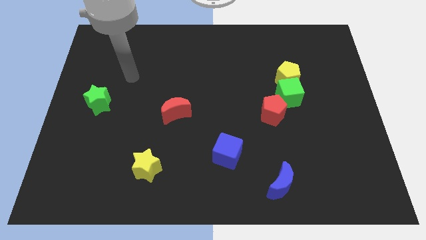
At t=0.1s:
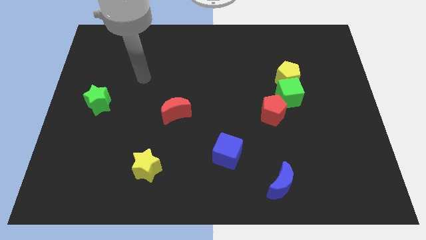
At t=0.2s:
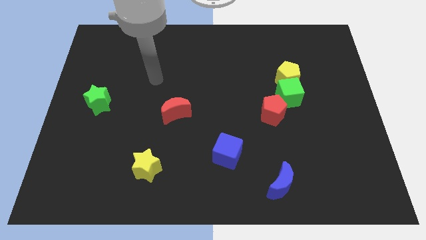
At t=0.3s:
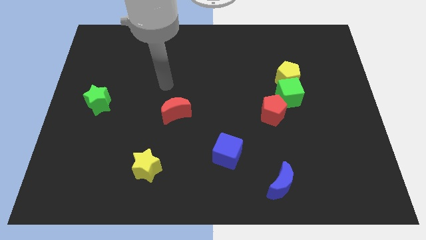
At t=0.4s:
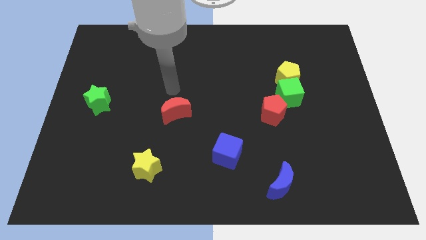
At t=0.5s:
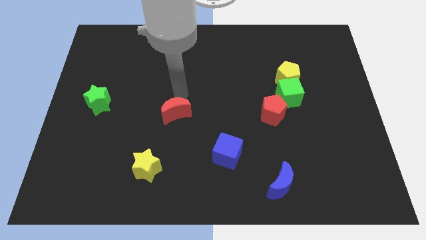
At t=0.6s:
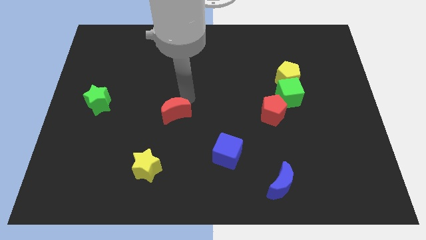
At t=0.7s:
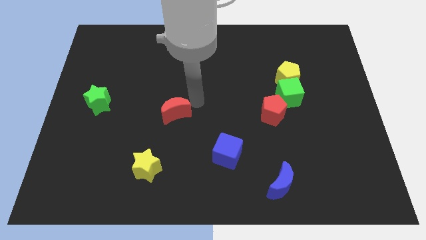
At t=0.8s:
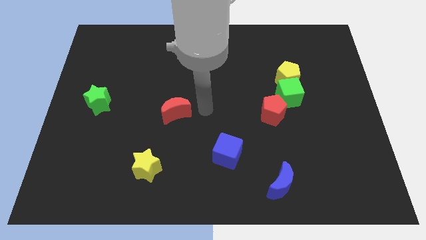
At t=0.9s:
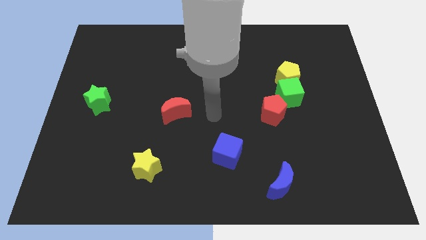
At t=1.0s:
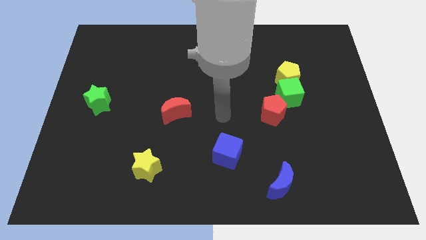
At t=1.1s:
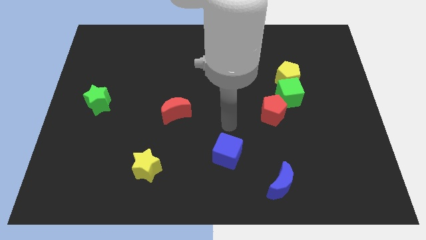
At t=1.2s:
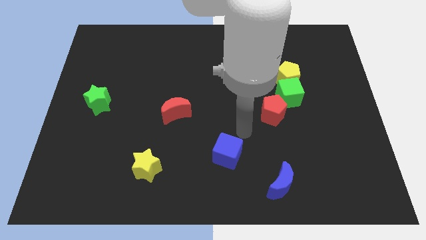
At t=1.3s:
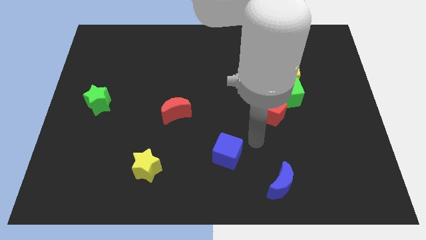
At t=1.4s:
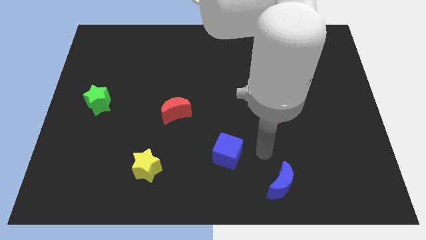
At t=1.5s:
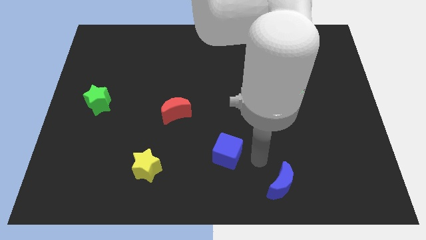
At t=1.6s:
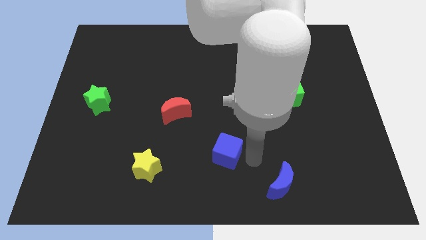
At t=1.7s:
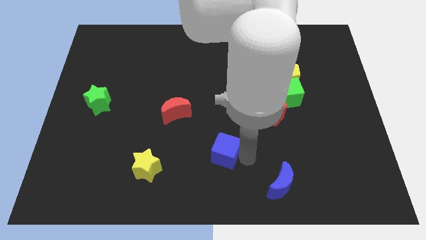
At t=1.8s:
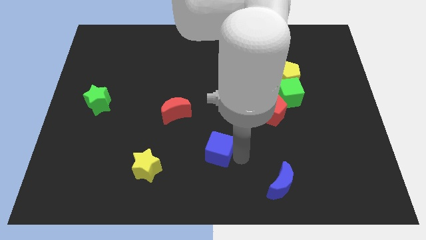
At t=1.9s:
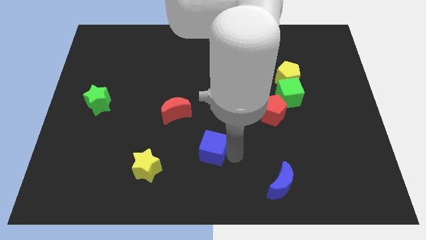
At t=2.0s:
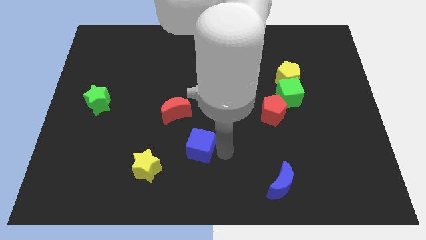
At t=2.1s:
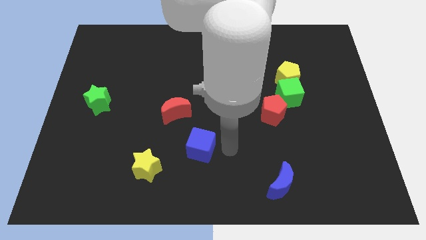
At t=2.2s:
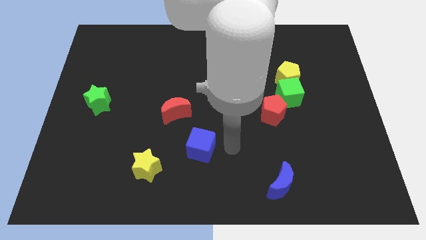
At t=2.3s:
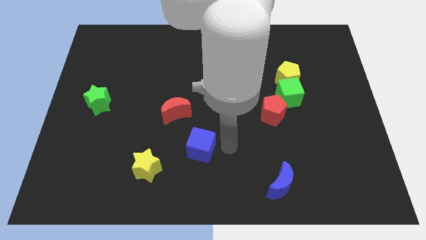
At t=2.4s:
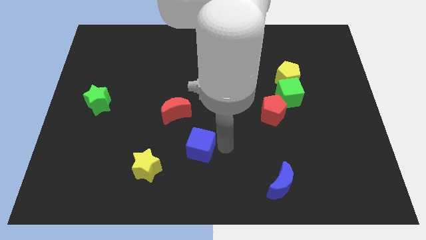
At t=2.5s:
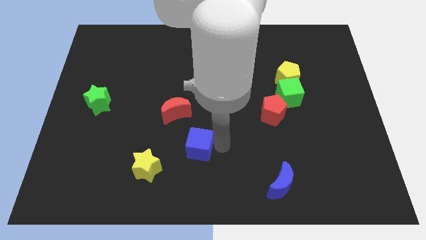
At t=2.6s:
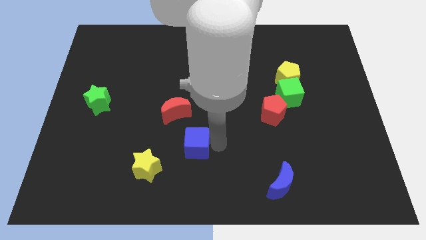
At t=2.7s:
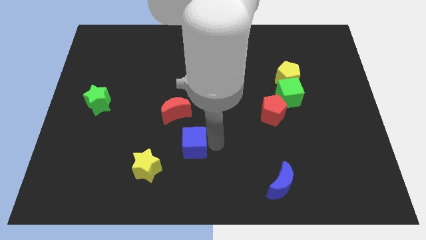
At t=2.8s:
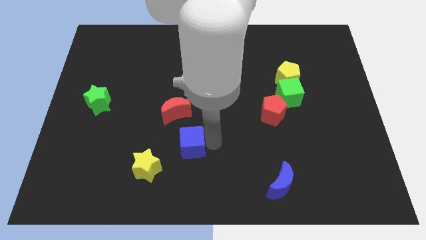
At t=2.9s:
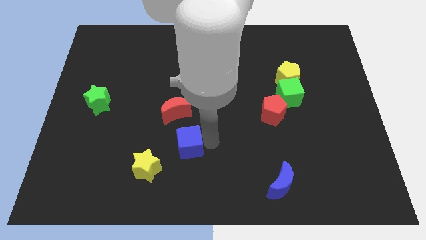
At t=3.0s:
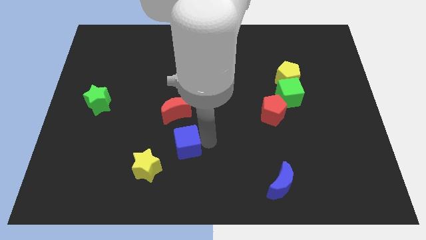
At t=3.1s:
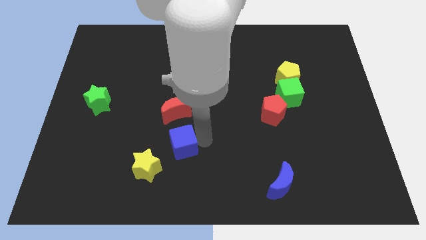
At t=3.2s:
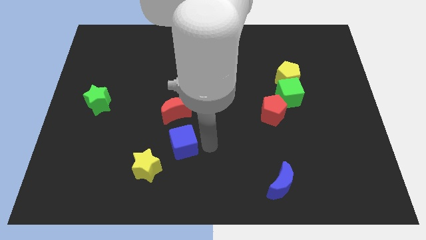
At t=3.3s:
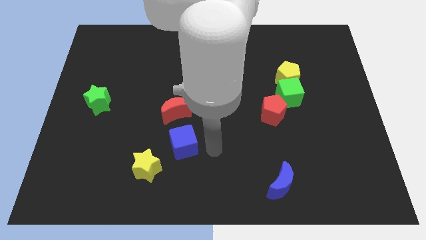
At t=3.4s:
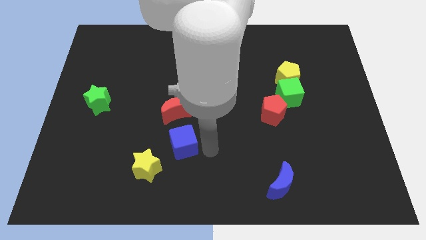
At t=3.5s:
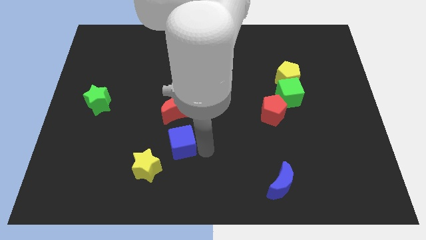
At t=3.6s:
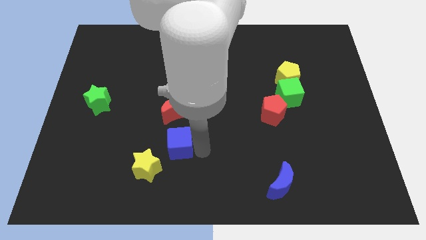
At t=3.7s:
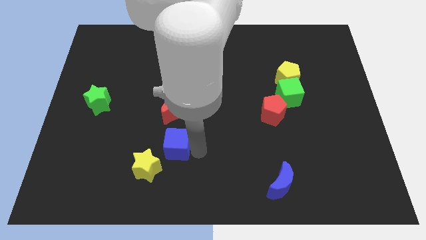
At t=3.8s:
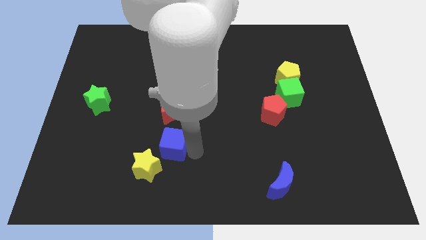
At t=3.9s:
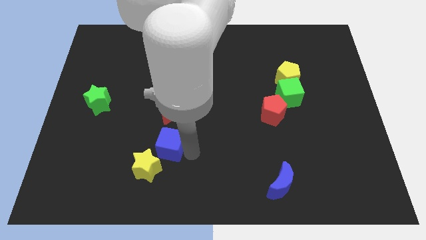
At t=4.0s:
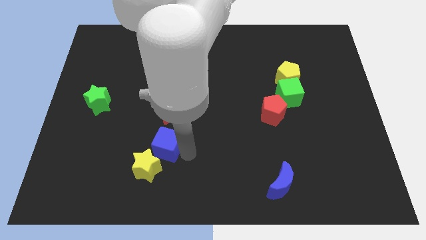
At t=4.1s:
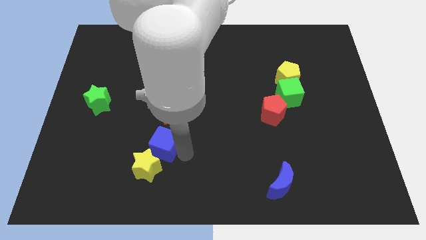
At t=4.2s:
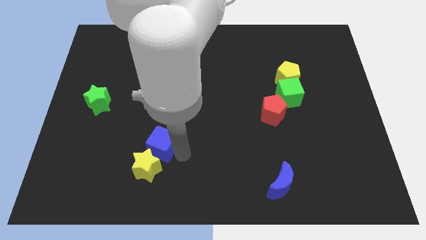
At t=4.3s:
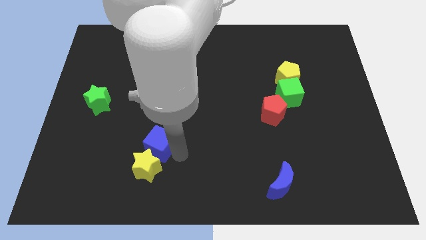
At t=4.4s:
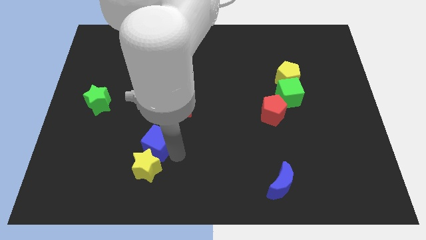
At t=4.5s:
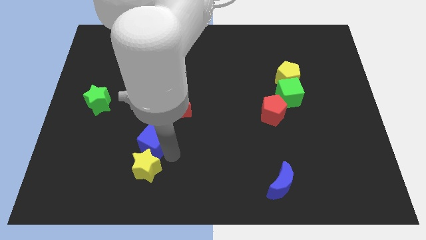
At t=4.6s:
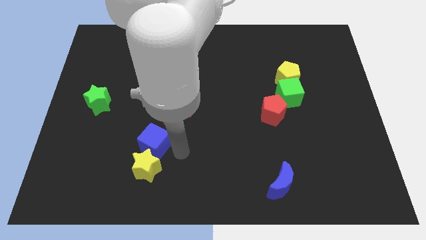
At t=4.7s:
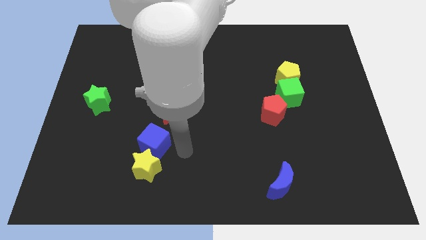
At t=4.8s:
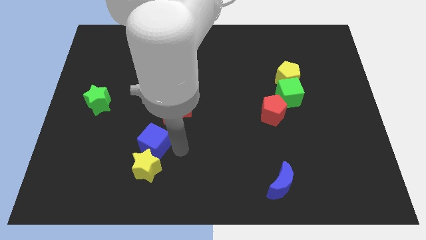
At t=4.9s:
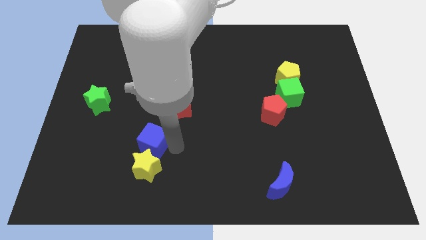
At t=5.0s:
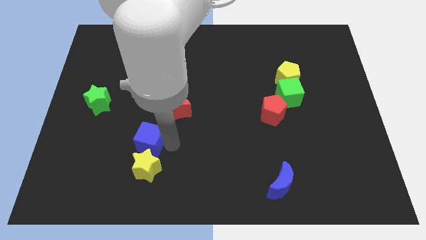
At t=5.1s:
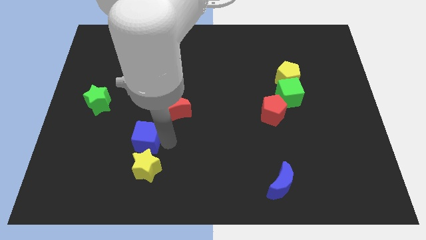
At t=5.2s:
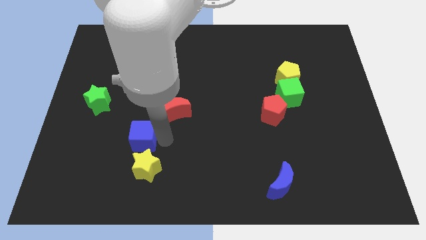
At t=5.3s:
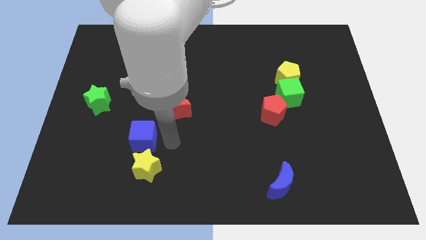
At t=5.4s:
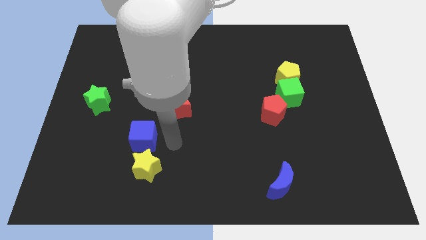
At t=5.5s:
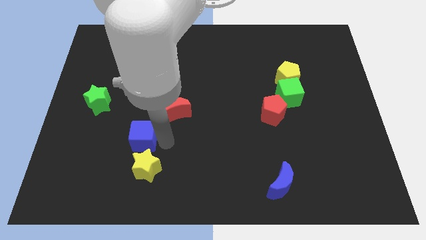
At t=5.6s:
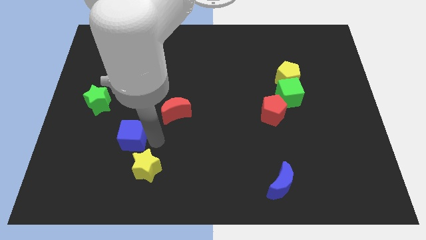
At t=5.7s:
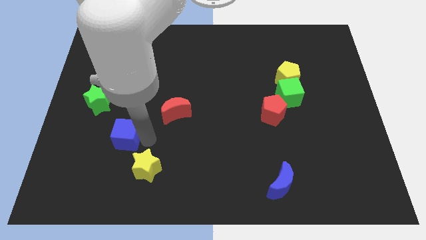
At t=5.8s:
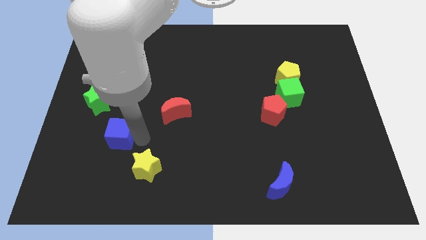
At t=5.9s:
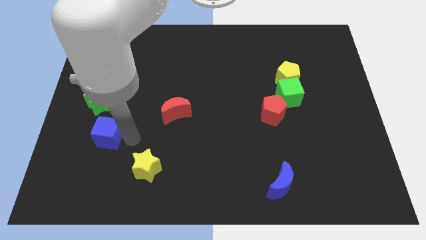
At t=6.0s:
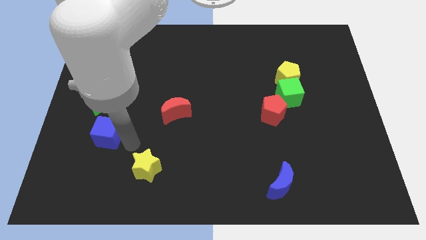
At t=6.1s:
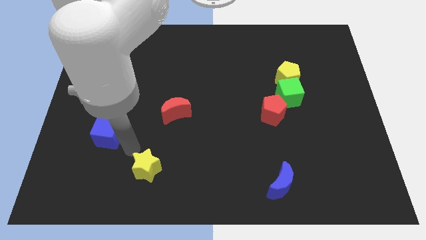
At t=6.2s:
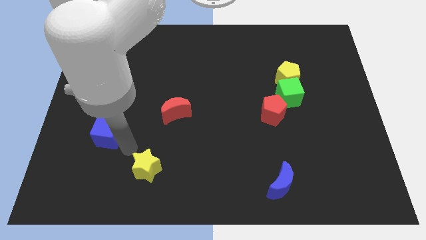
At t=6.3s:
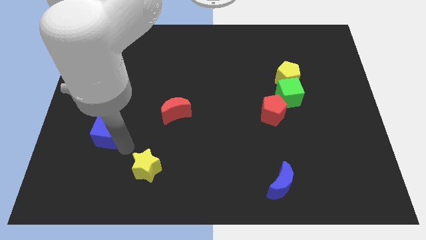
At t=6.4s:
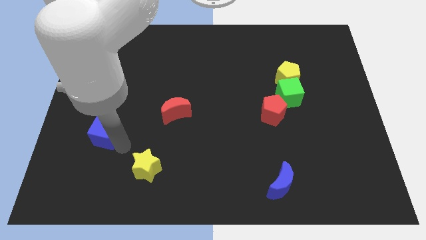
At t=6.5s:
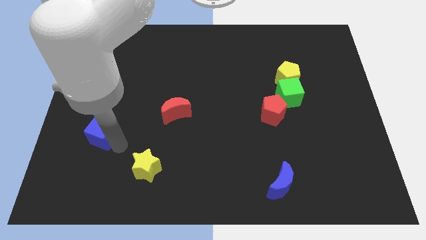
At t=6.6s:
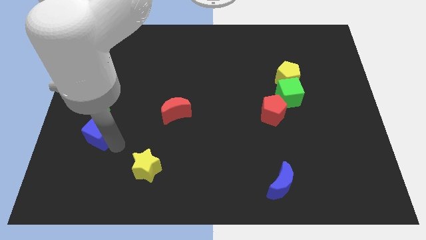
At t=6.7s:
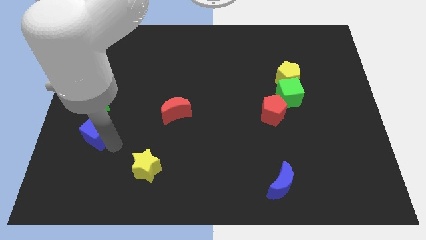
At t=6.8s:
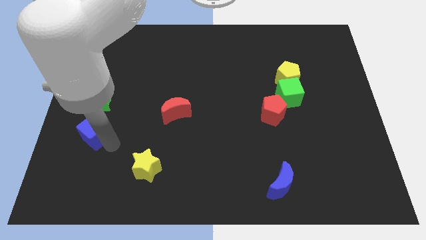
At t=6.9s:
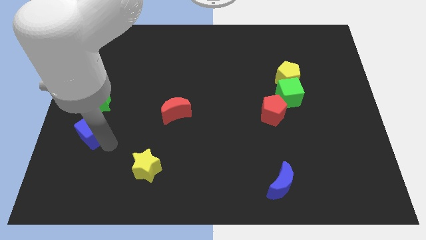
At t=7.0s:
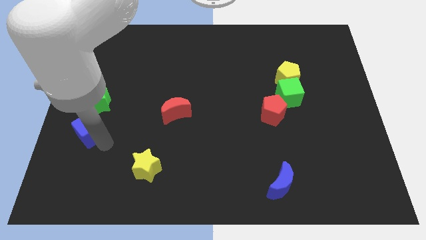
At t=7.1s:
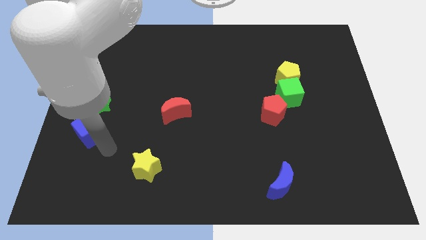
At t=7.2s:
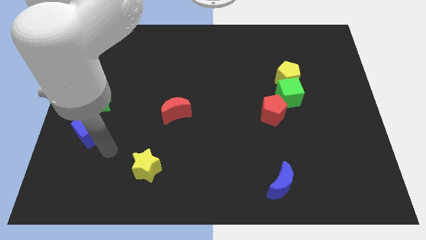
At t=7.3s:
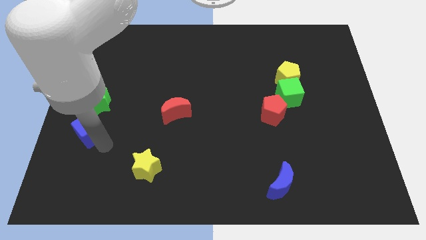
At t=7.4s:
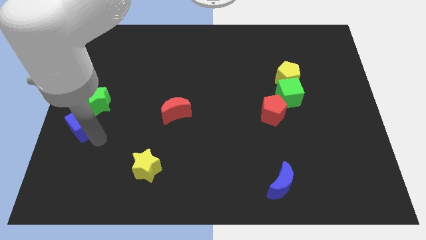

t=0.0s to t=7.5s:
put the blue cube to the left side
